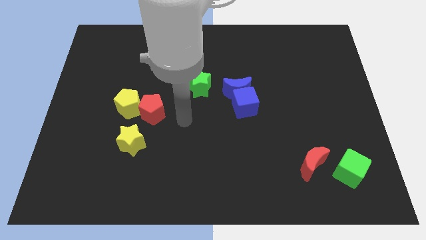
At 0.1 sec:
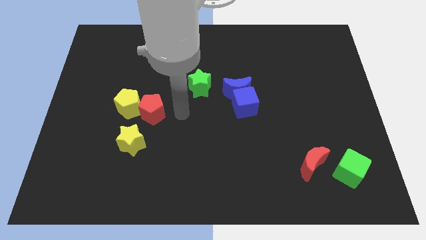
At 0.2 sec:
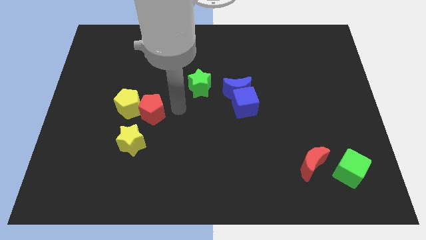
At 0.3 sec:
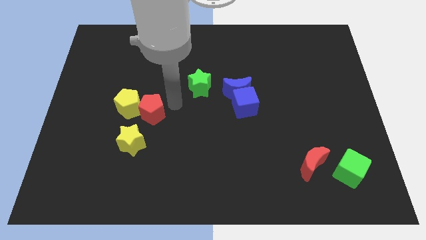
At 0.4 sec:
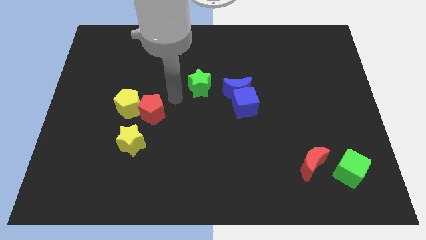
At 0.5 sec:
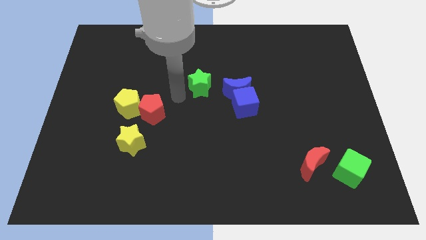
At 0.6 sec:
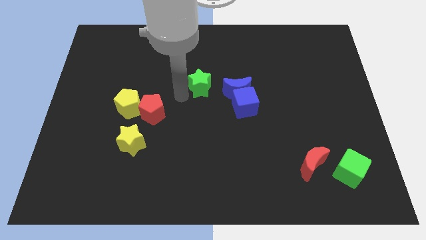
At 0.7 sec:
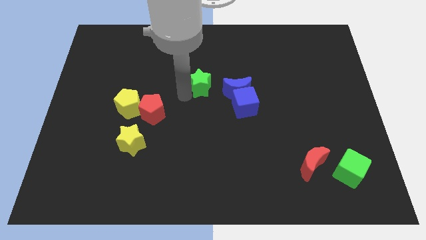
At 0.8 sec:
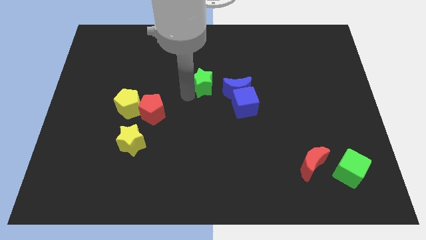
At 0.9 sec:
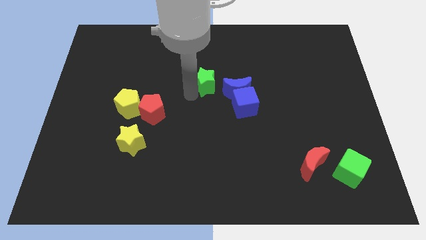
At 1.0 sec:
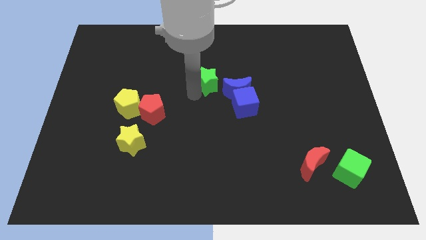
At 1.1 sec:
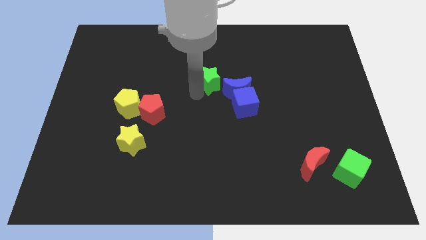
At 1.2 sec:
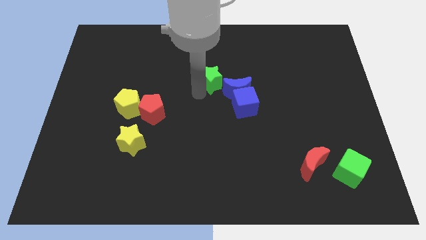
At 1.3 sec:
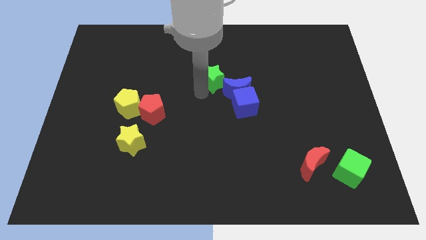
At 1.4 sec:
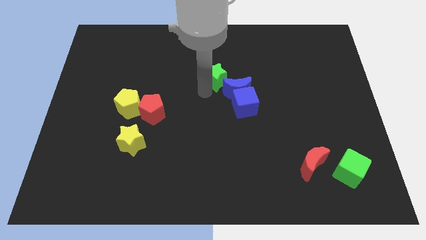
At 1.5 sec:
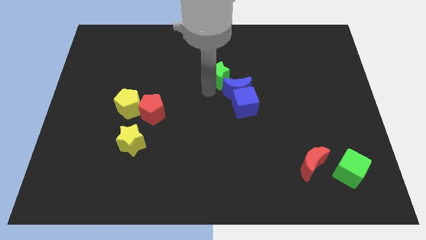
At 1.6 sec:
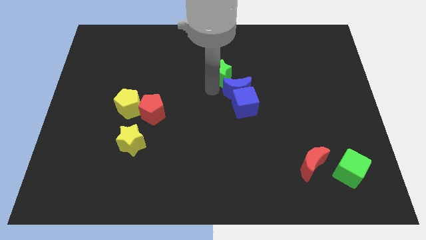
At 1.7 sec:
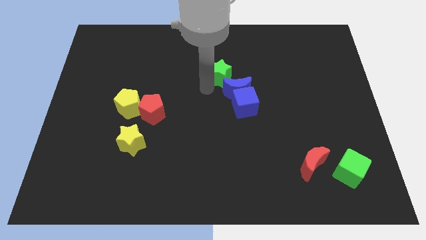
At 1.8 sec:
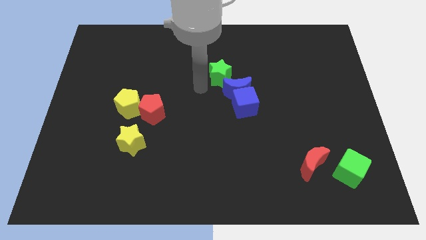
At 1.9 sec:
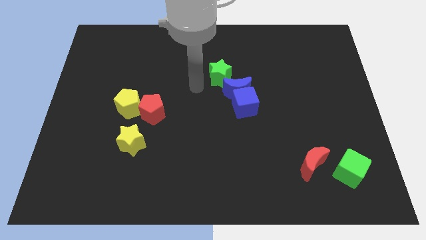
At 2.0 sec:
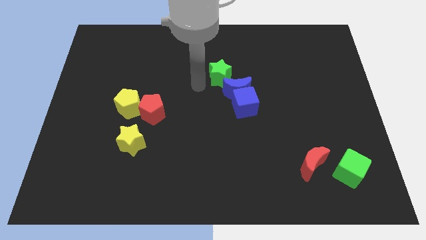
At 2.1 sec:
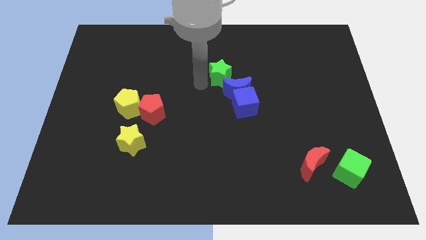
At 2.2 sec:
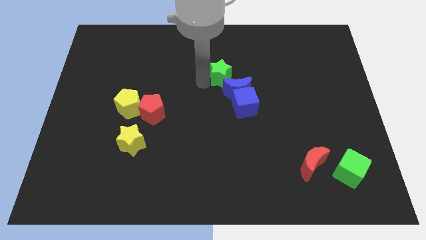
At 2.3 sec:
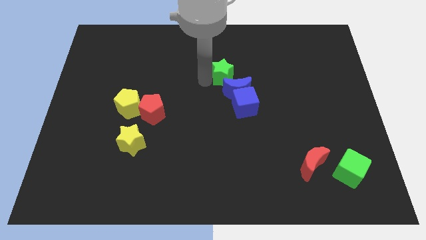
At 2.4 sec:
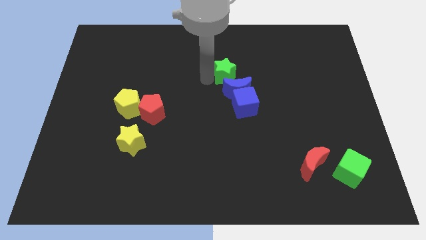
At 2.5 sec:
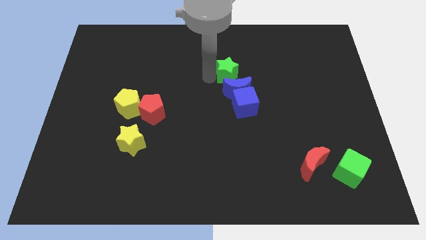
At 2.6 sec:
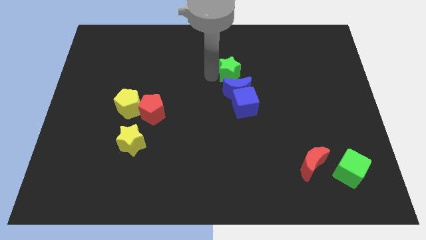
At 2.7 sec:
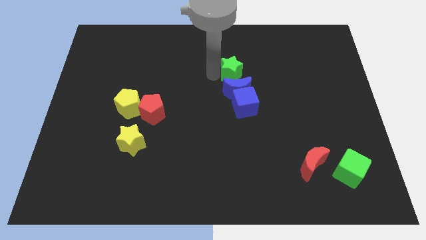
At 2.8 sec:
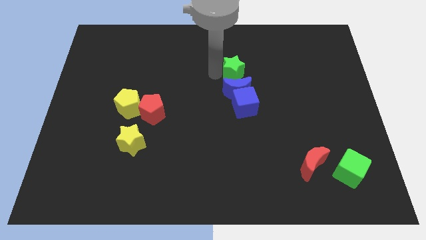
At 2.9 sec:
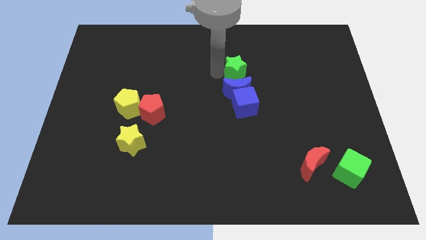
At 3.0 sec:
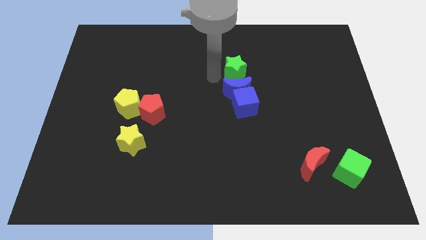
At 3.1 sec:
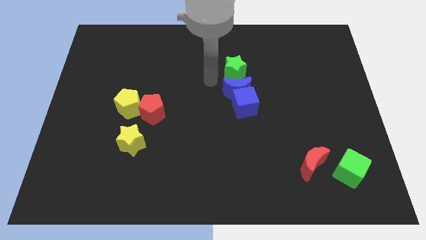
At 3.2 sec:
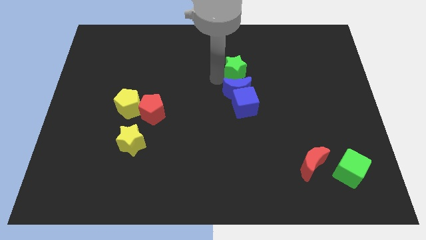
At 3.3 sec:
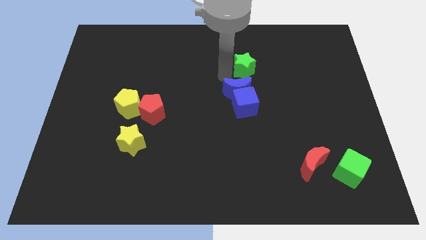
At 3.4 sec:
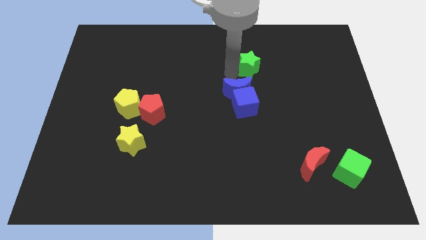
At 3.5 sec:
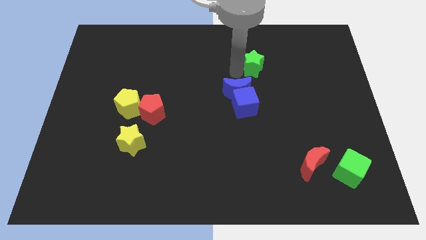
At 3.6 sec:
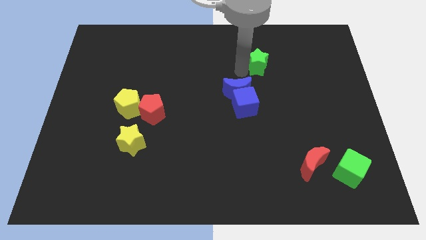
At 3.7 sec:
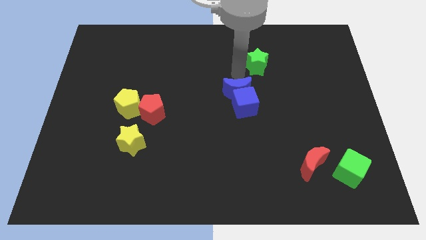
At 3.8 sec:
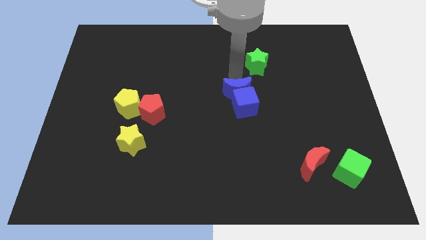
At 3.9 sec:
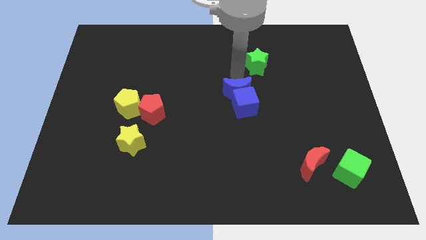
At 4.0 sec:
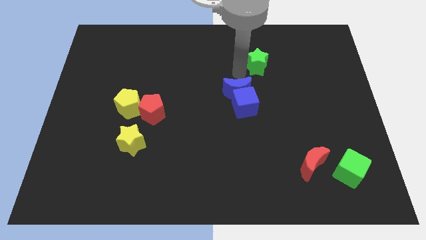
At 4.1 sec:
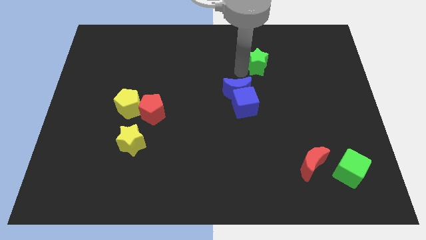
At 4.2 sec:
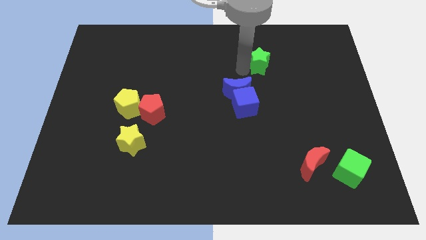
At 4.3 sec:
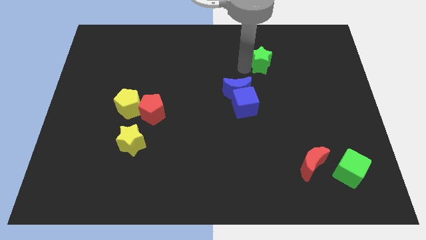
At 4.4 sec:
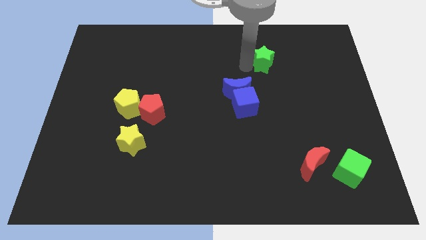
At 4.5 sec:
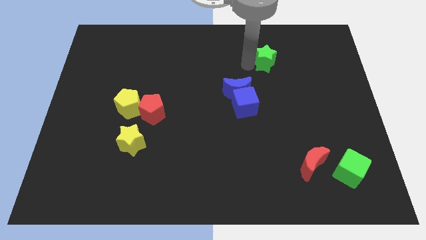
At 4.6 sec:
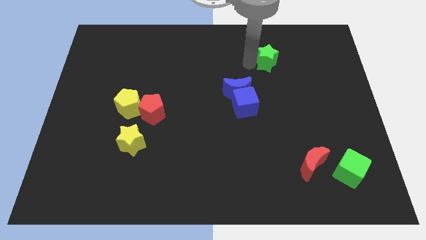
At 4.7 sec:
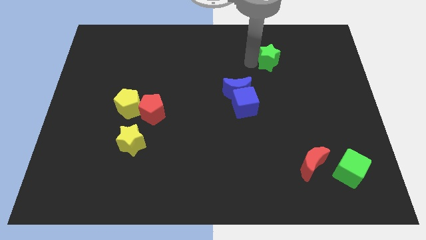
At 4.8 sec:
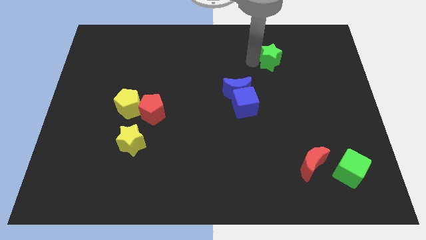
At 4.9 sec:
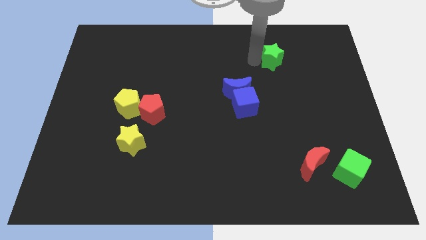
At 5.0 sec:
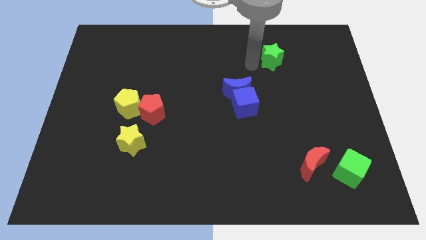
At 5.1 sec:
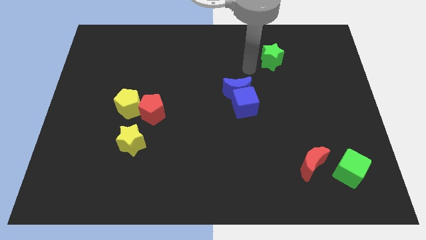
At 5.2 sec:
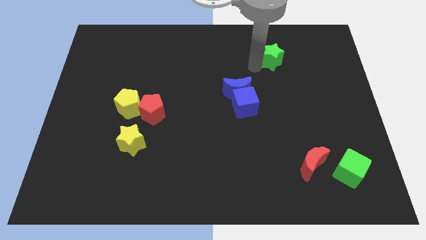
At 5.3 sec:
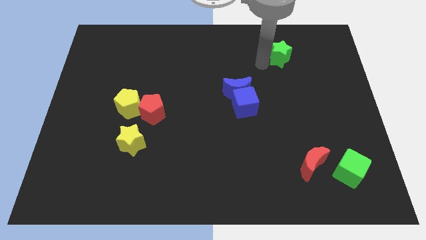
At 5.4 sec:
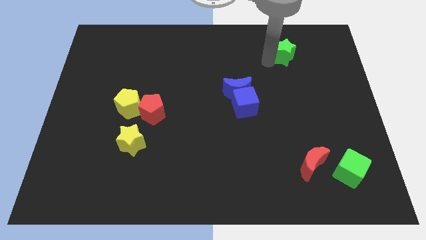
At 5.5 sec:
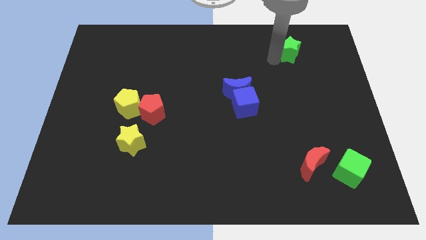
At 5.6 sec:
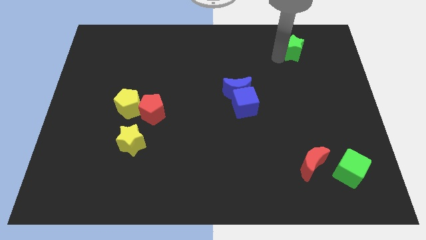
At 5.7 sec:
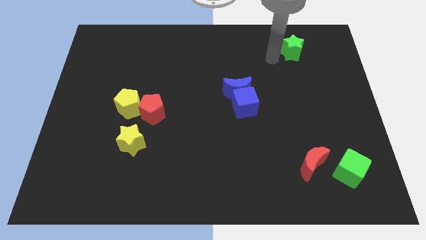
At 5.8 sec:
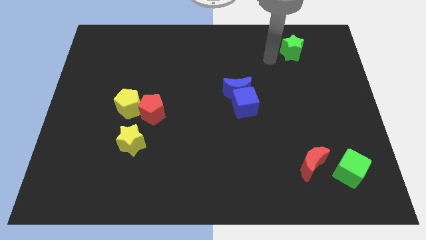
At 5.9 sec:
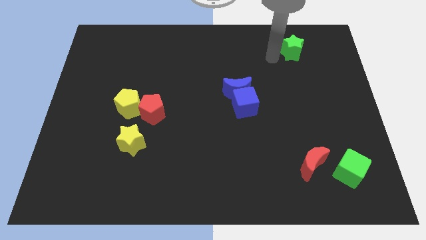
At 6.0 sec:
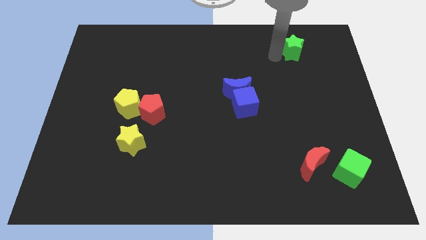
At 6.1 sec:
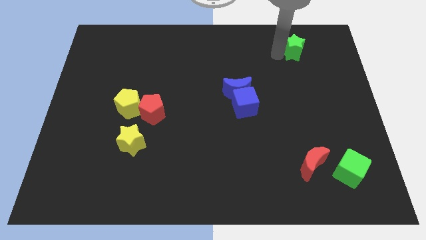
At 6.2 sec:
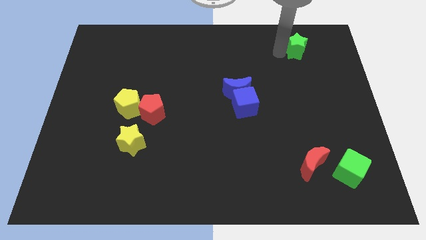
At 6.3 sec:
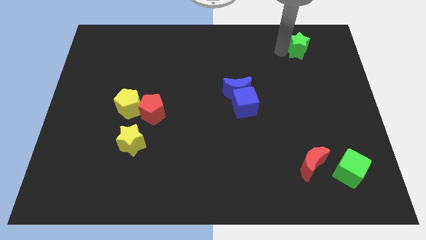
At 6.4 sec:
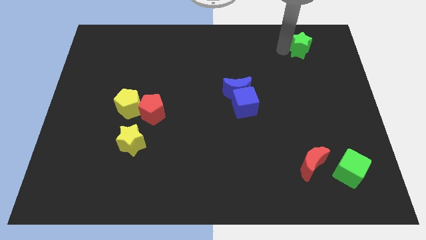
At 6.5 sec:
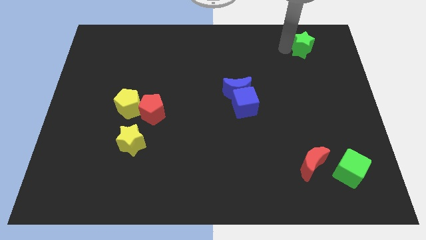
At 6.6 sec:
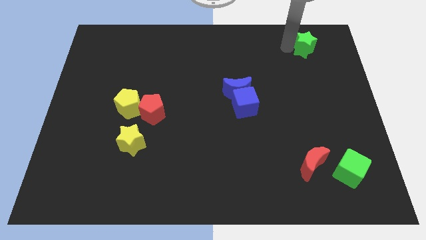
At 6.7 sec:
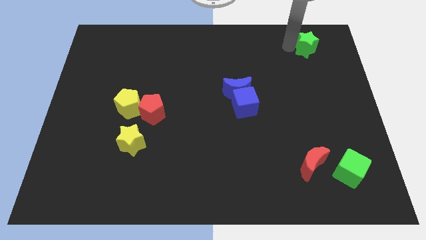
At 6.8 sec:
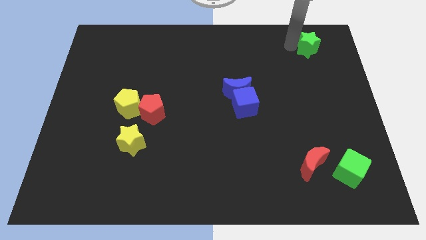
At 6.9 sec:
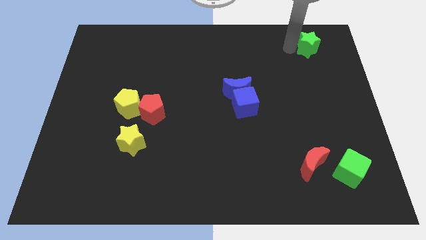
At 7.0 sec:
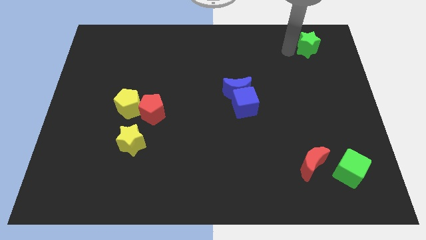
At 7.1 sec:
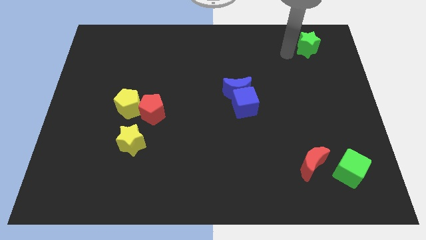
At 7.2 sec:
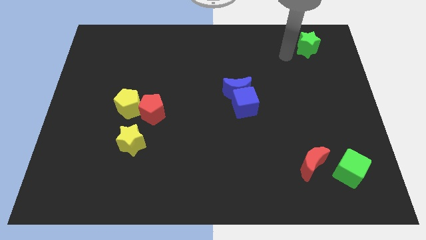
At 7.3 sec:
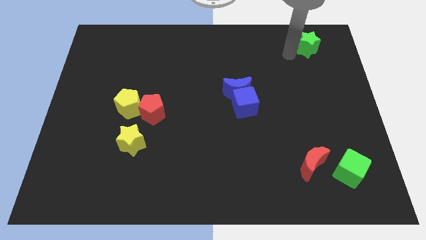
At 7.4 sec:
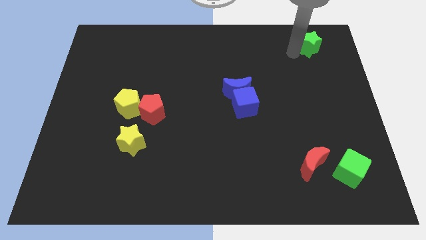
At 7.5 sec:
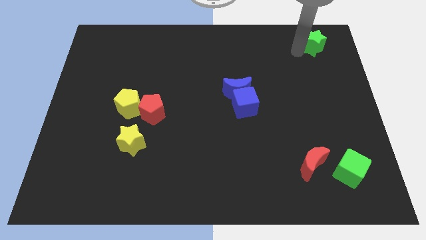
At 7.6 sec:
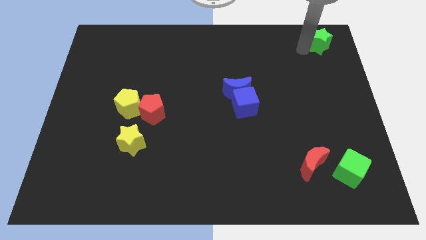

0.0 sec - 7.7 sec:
put the green star to the top right
